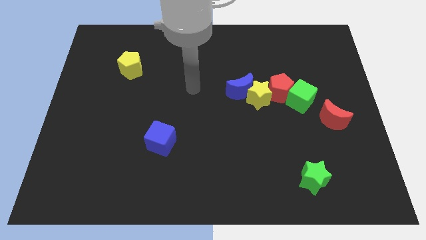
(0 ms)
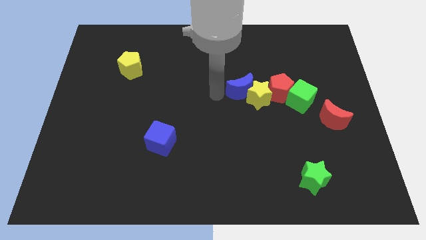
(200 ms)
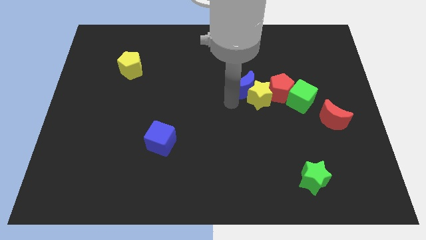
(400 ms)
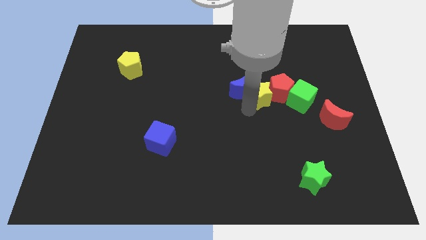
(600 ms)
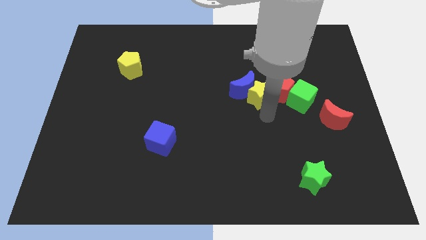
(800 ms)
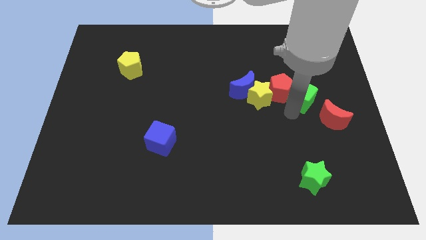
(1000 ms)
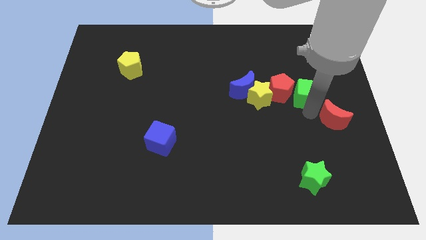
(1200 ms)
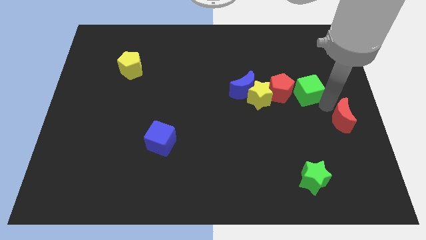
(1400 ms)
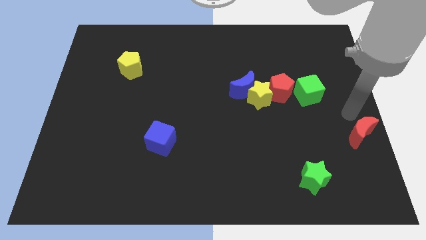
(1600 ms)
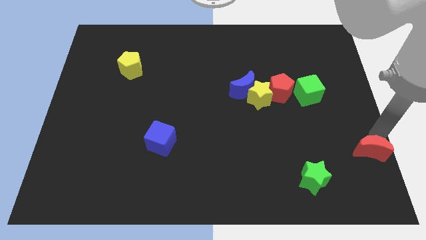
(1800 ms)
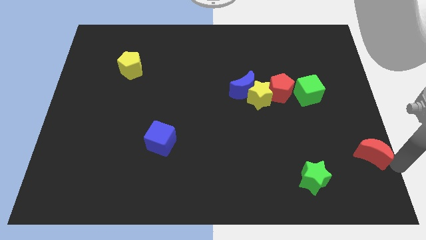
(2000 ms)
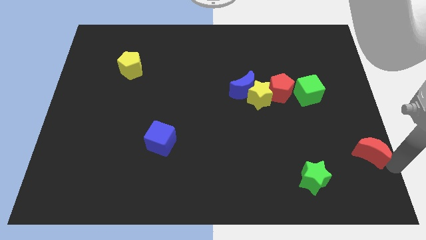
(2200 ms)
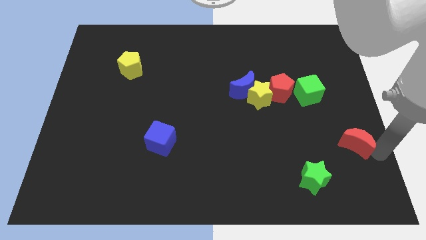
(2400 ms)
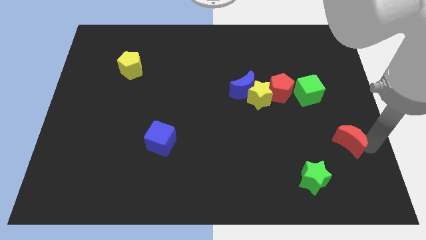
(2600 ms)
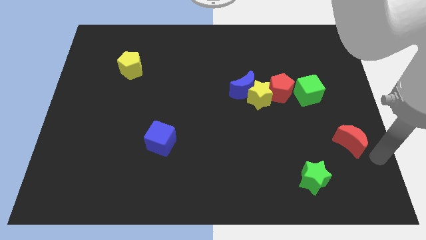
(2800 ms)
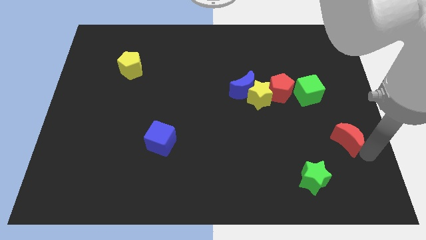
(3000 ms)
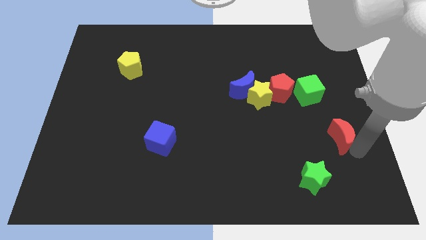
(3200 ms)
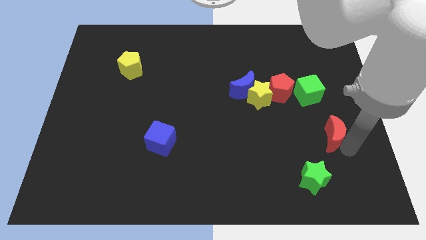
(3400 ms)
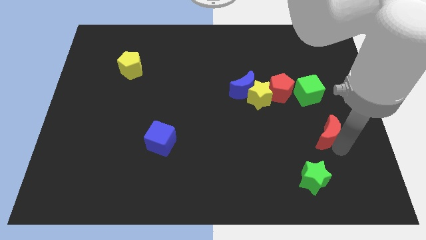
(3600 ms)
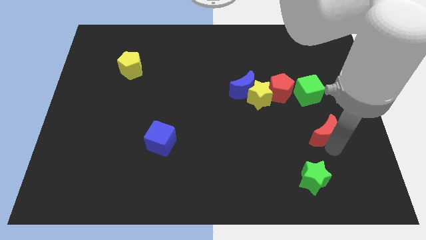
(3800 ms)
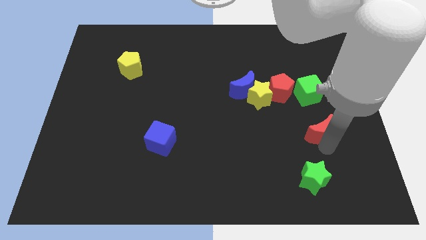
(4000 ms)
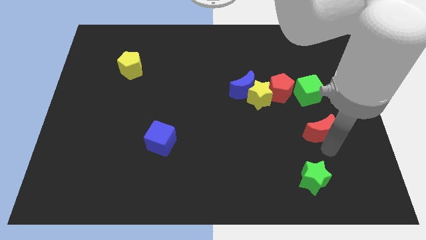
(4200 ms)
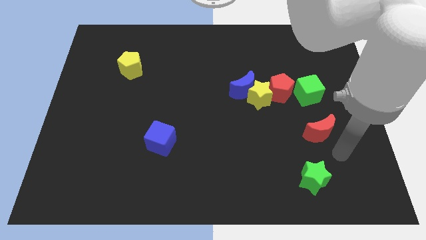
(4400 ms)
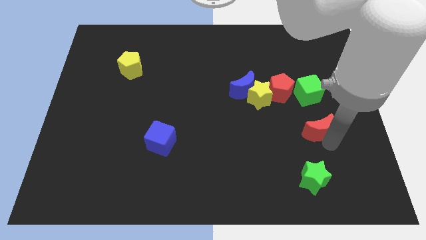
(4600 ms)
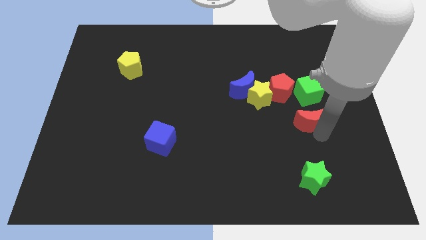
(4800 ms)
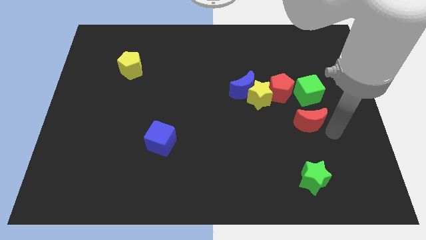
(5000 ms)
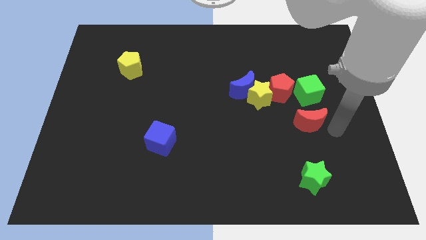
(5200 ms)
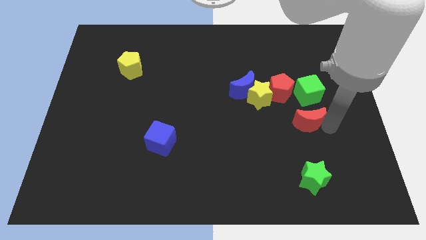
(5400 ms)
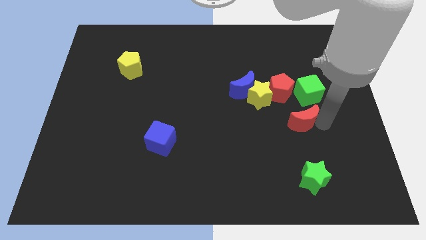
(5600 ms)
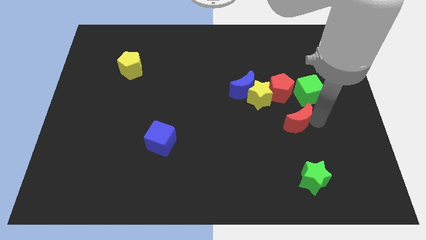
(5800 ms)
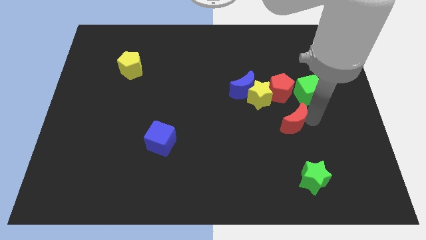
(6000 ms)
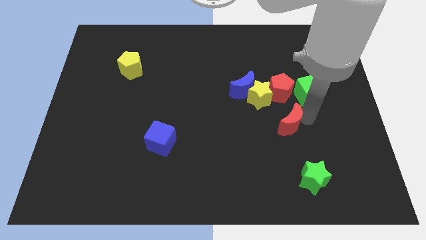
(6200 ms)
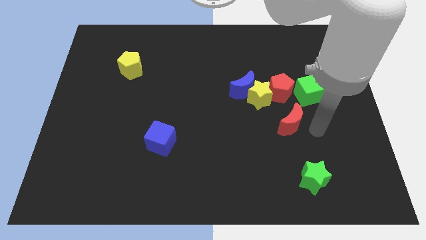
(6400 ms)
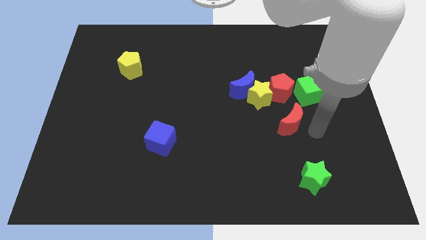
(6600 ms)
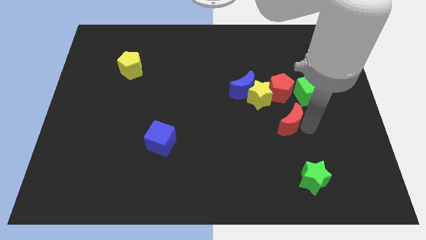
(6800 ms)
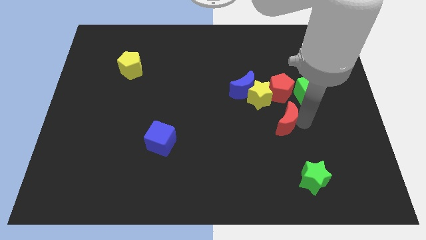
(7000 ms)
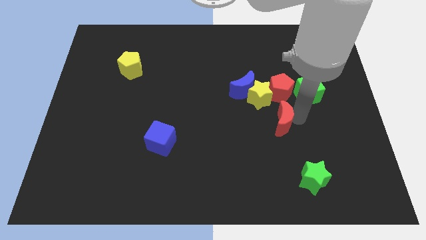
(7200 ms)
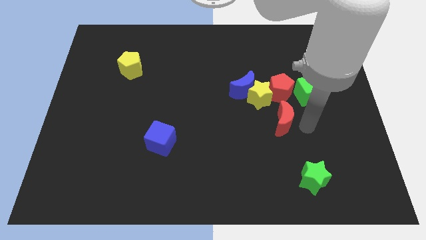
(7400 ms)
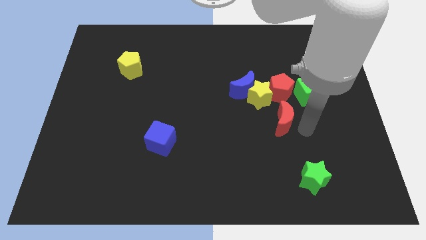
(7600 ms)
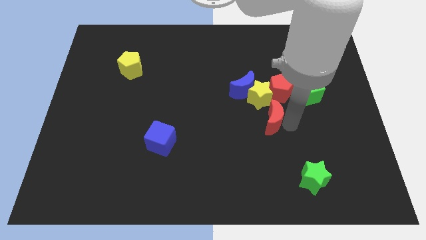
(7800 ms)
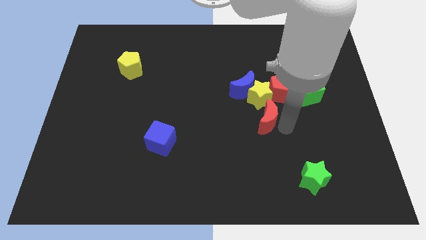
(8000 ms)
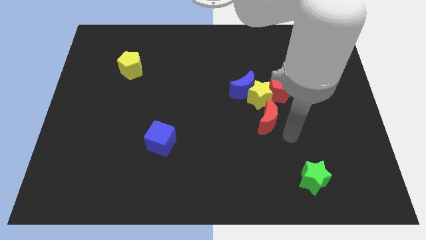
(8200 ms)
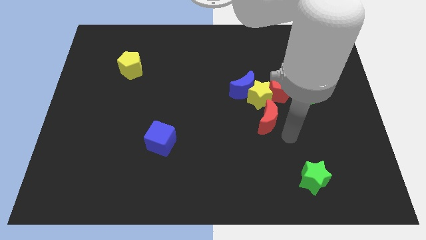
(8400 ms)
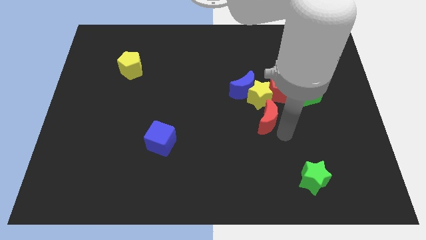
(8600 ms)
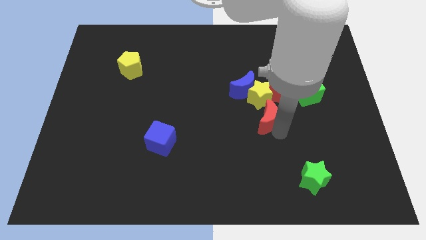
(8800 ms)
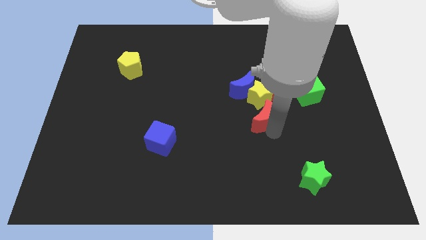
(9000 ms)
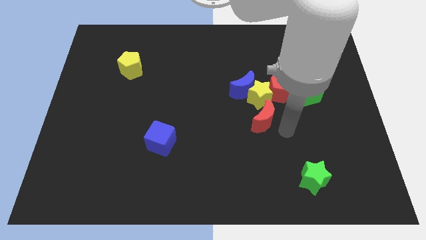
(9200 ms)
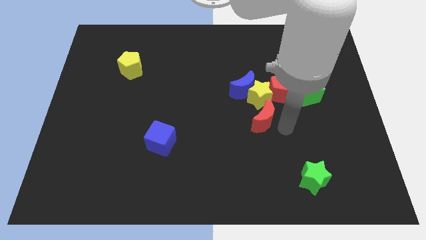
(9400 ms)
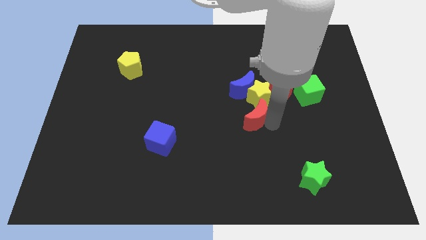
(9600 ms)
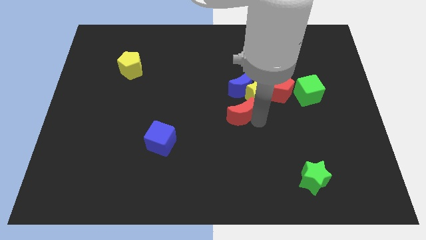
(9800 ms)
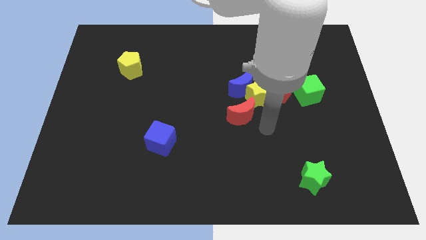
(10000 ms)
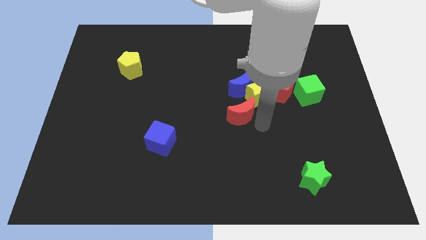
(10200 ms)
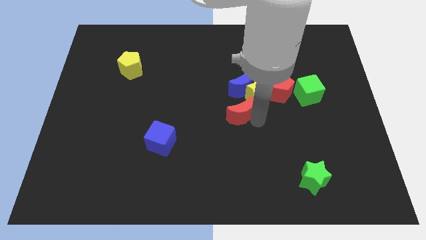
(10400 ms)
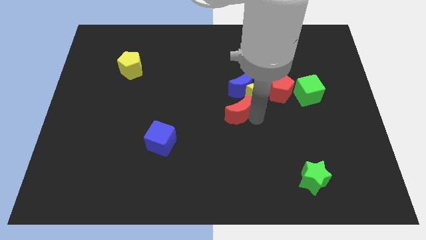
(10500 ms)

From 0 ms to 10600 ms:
move the red moon diagonally down and to the left of the blue moon
